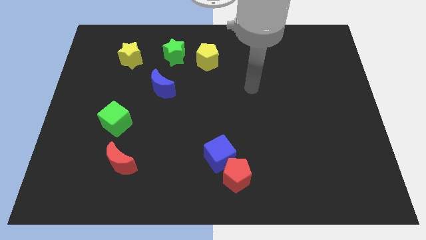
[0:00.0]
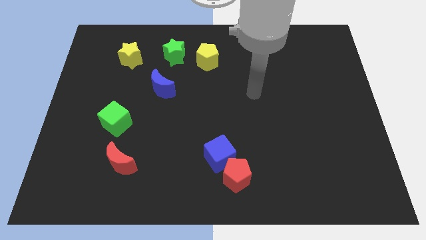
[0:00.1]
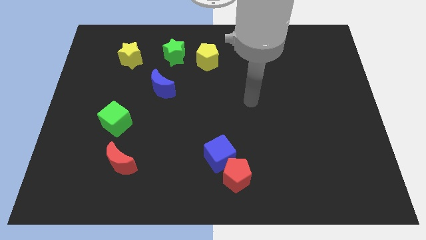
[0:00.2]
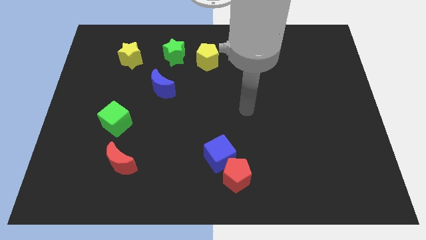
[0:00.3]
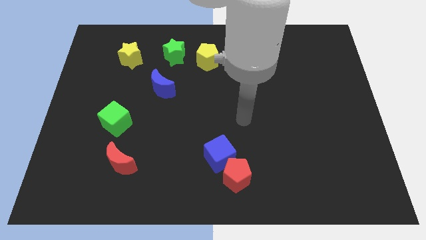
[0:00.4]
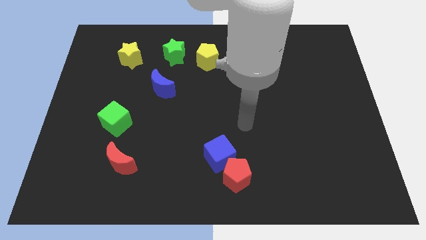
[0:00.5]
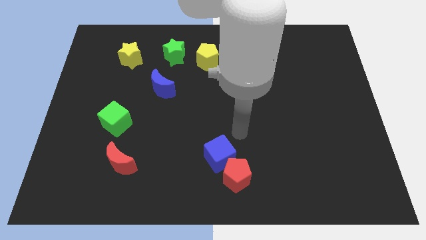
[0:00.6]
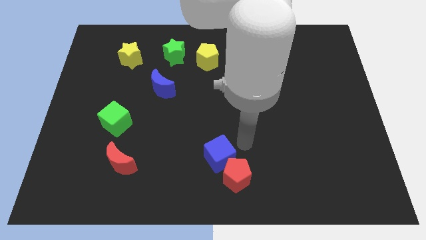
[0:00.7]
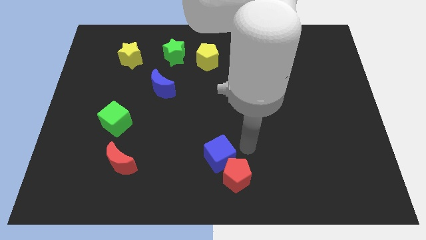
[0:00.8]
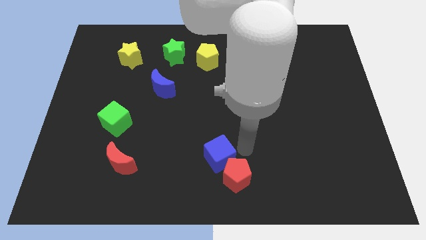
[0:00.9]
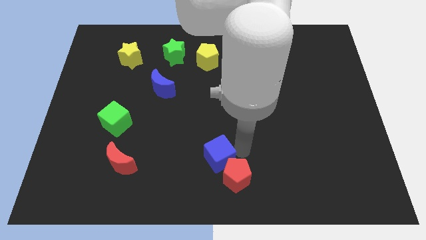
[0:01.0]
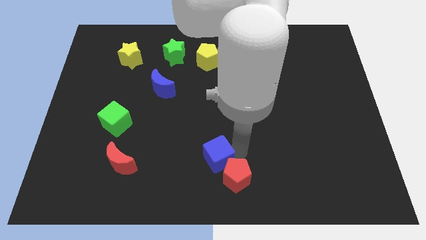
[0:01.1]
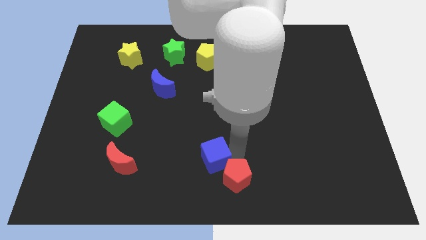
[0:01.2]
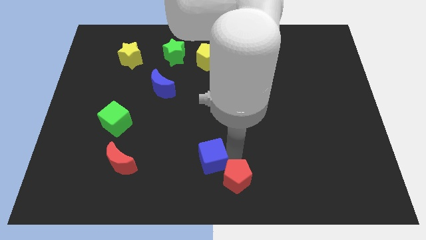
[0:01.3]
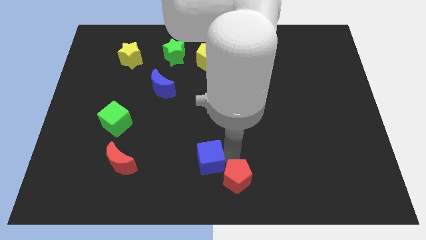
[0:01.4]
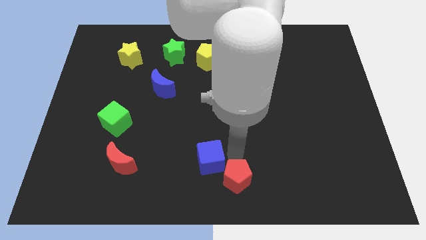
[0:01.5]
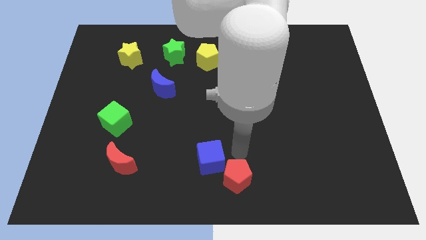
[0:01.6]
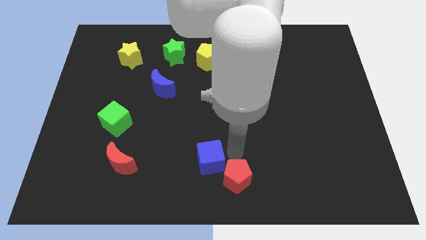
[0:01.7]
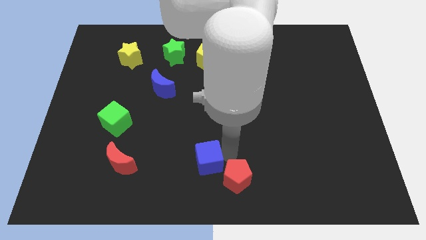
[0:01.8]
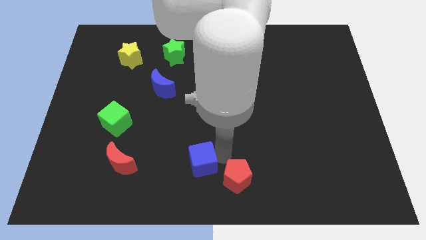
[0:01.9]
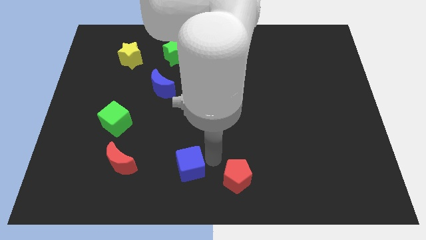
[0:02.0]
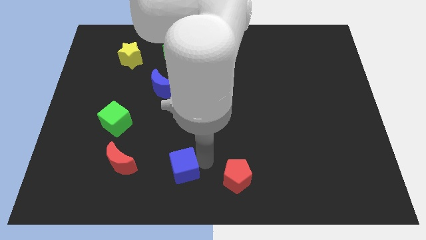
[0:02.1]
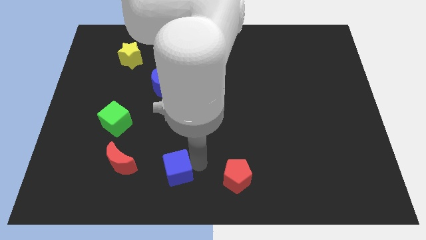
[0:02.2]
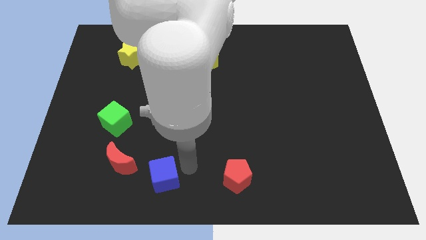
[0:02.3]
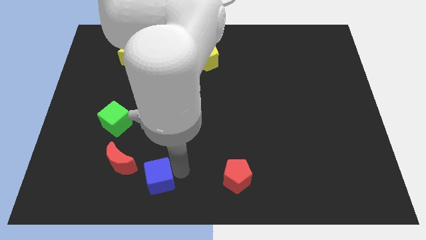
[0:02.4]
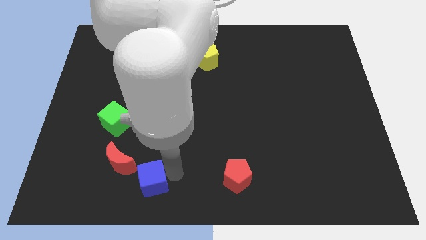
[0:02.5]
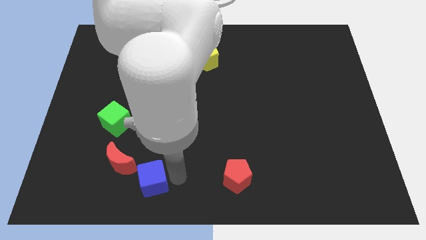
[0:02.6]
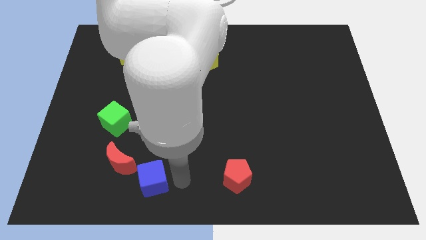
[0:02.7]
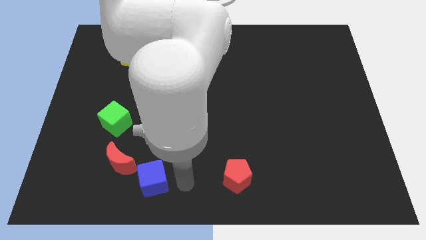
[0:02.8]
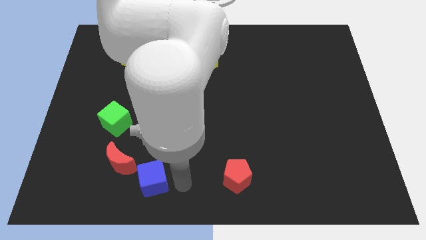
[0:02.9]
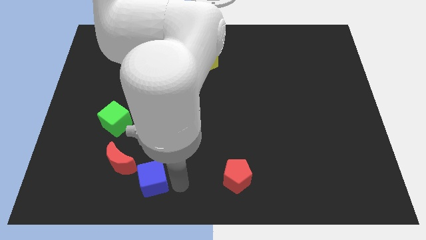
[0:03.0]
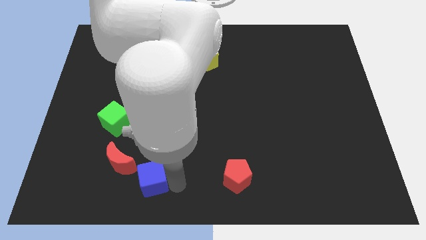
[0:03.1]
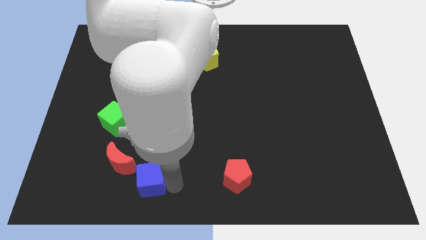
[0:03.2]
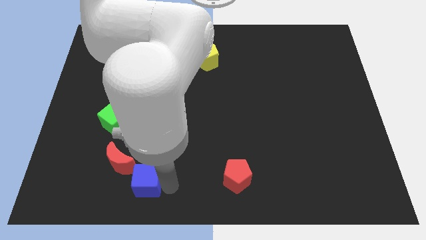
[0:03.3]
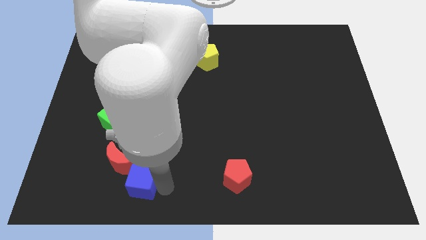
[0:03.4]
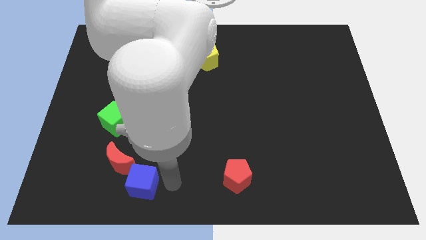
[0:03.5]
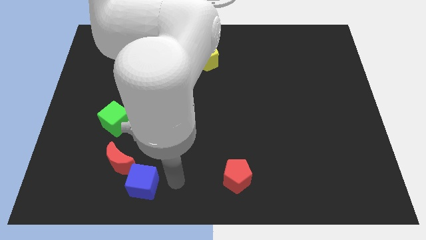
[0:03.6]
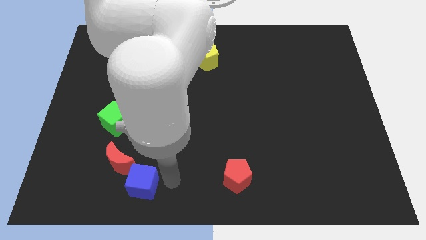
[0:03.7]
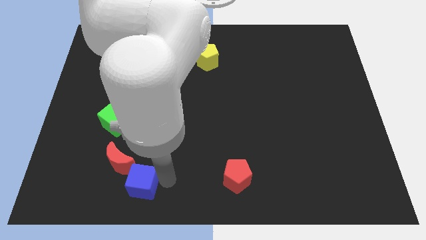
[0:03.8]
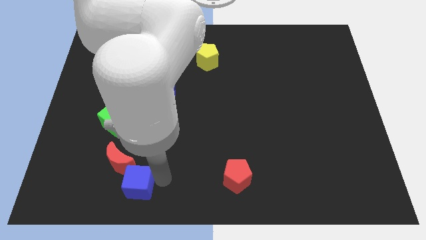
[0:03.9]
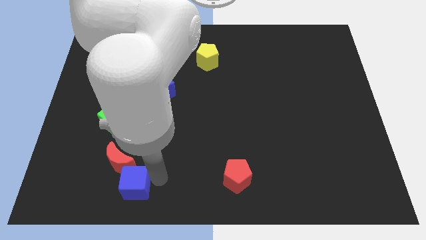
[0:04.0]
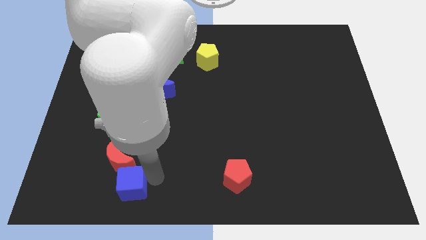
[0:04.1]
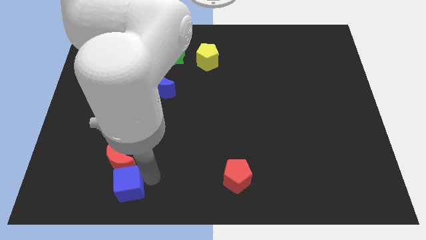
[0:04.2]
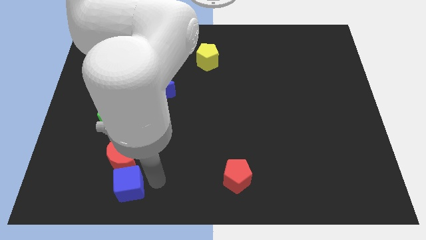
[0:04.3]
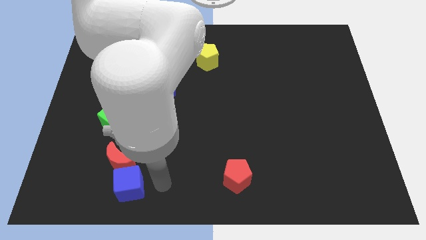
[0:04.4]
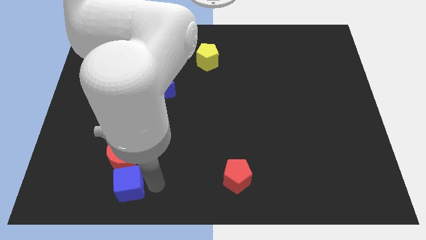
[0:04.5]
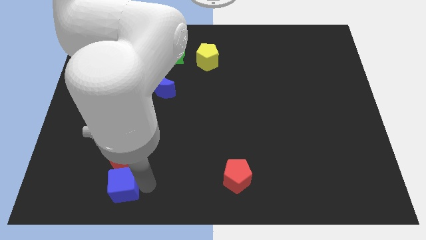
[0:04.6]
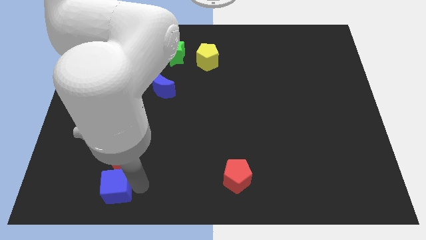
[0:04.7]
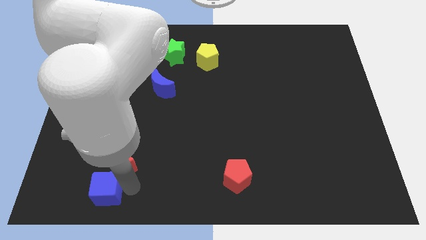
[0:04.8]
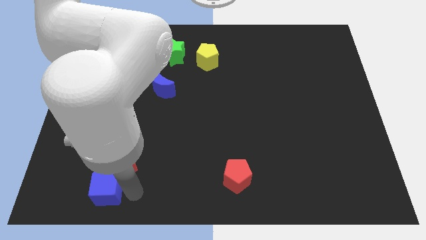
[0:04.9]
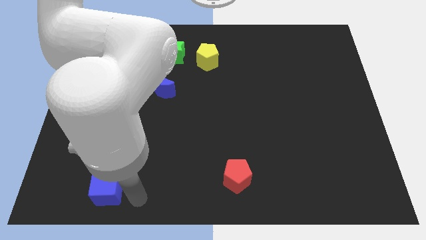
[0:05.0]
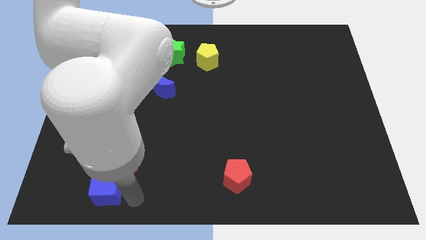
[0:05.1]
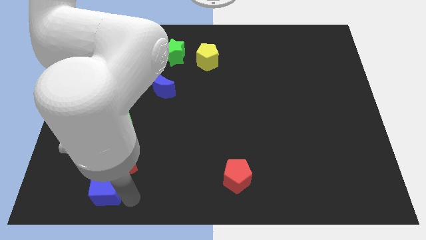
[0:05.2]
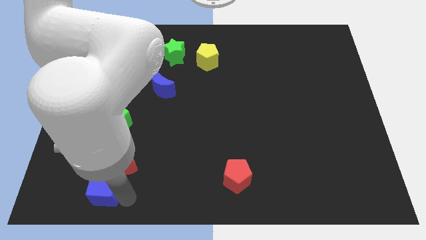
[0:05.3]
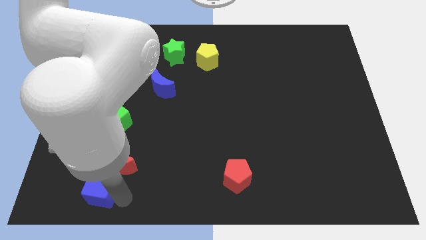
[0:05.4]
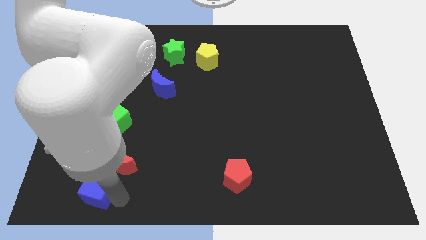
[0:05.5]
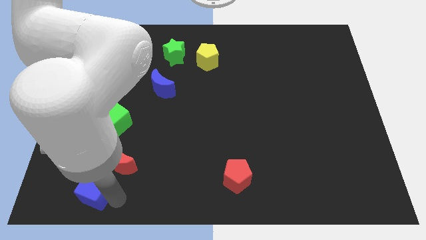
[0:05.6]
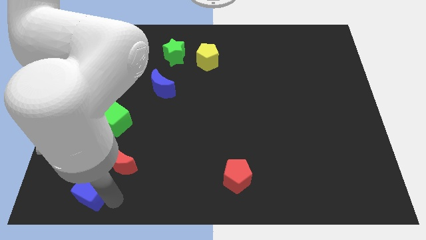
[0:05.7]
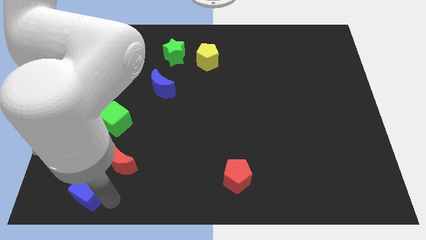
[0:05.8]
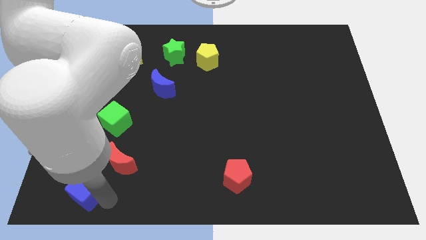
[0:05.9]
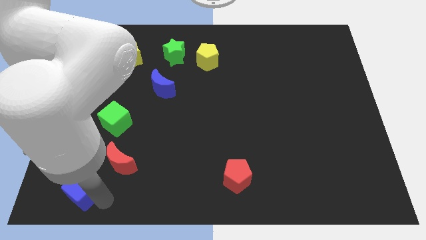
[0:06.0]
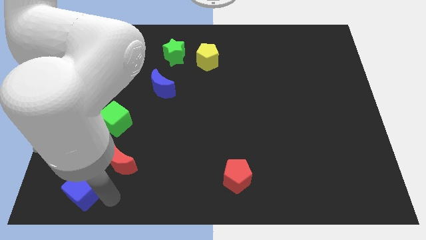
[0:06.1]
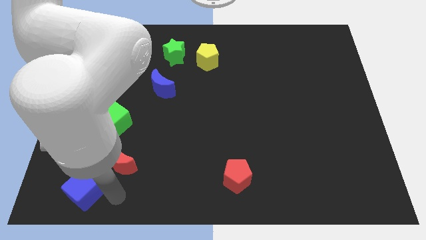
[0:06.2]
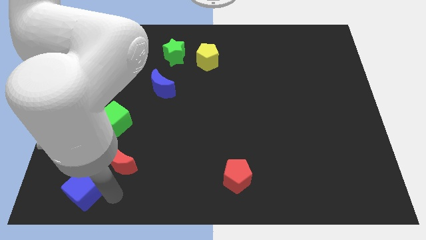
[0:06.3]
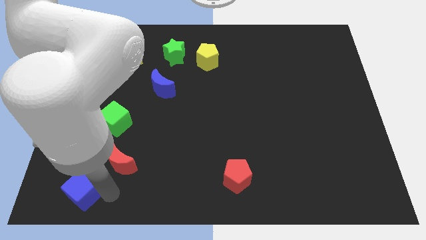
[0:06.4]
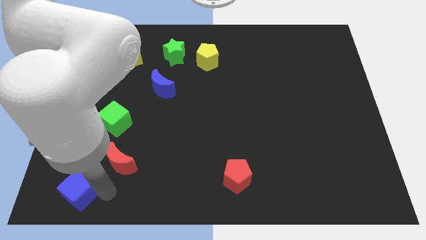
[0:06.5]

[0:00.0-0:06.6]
slide the blue cube to the bottom left corner
